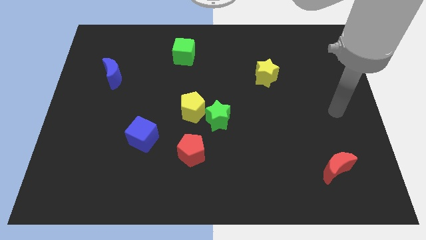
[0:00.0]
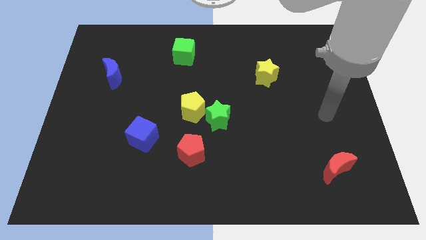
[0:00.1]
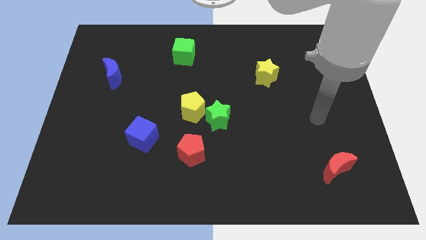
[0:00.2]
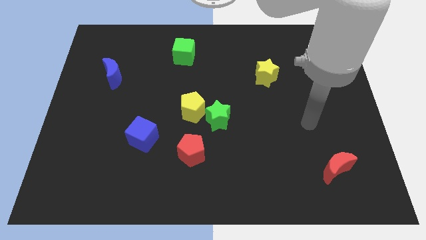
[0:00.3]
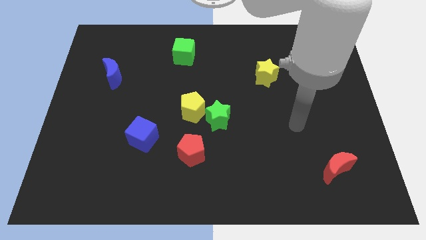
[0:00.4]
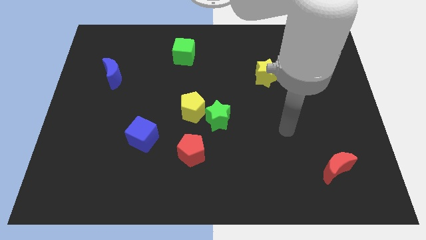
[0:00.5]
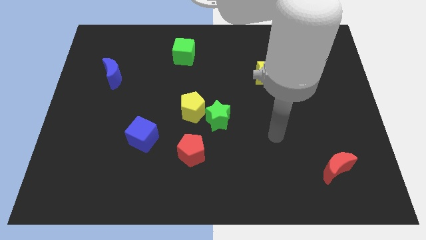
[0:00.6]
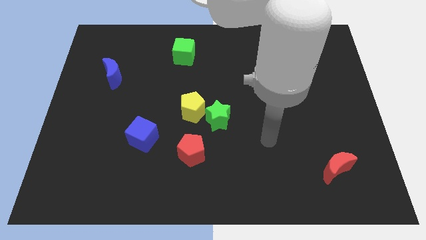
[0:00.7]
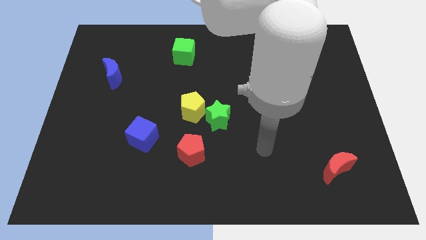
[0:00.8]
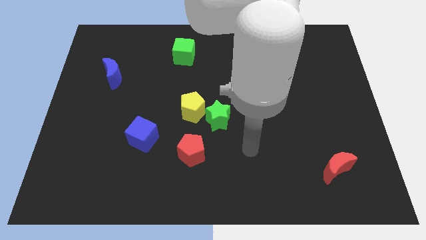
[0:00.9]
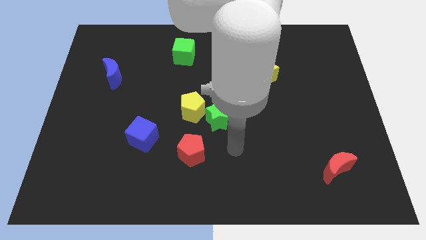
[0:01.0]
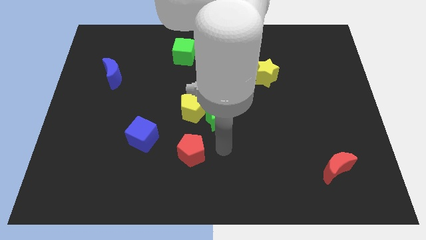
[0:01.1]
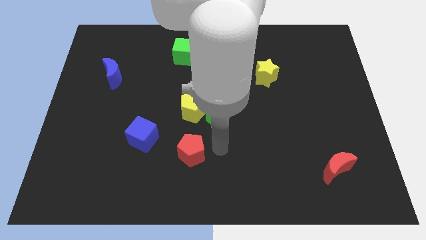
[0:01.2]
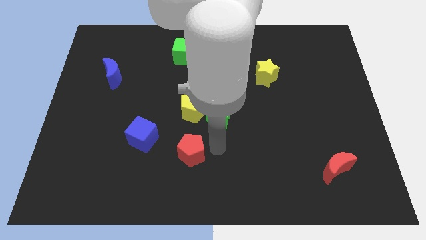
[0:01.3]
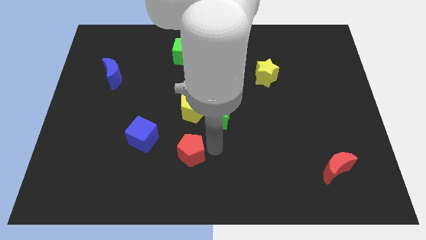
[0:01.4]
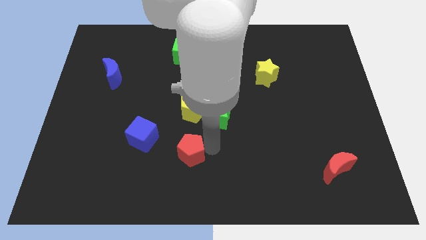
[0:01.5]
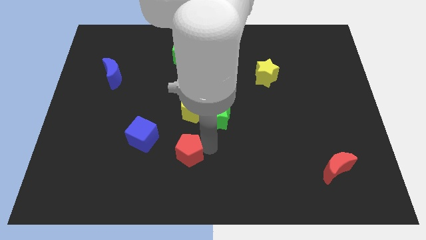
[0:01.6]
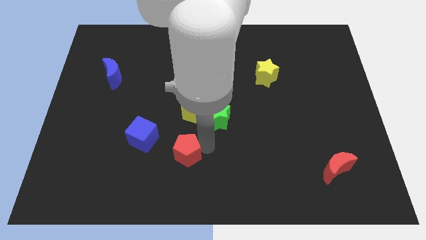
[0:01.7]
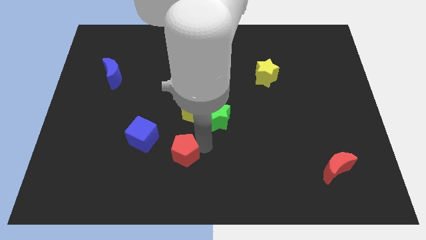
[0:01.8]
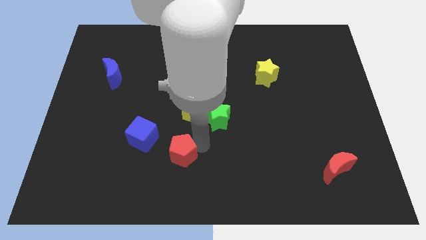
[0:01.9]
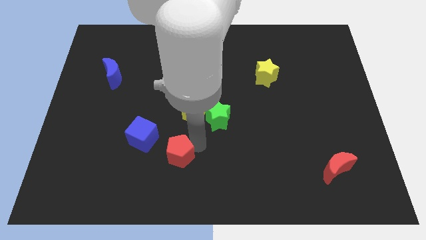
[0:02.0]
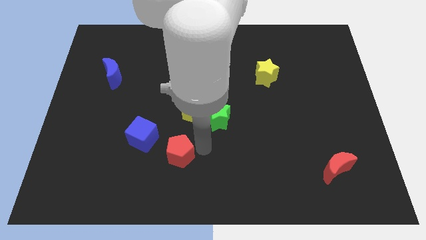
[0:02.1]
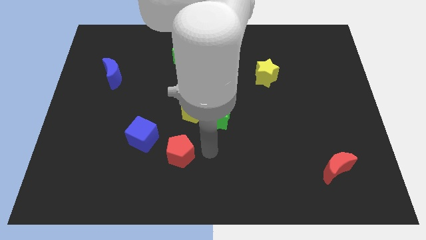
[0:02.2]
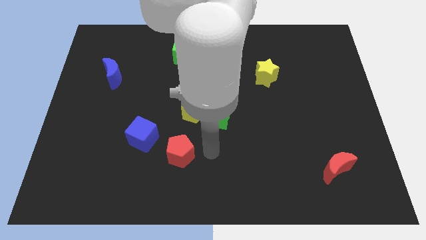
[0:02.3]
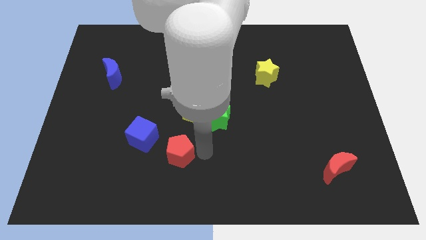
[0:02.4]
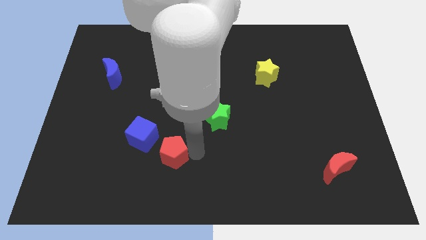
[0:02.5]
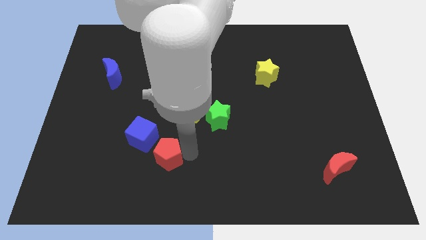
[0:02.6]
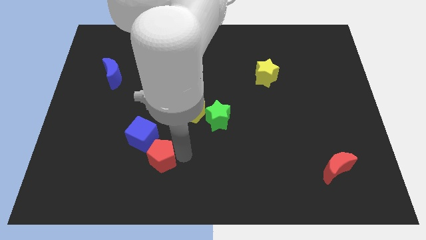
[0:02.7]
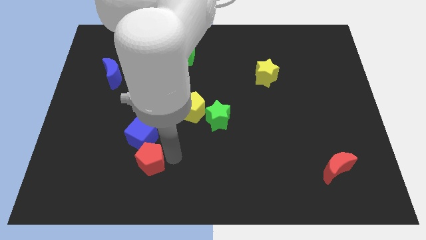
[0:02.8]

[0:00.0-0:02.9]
slightly push the red pentagon to the left

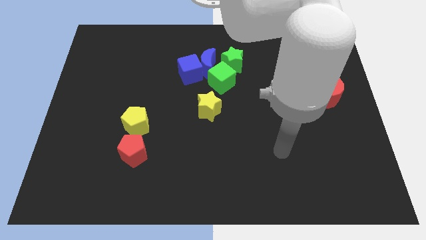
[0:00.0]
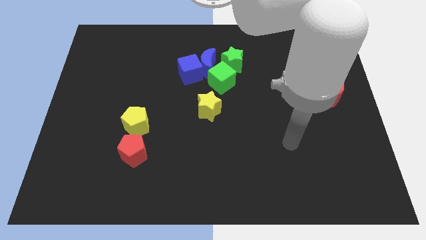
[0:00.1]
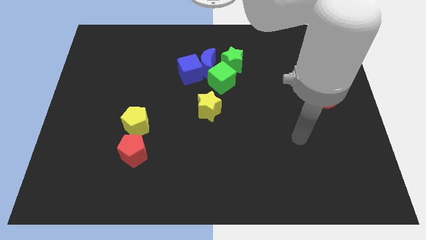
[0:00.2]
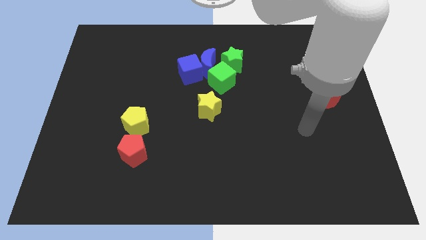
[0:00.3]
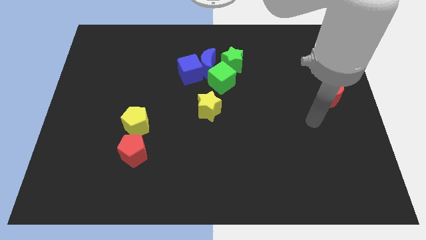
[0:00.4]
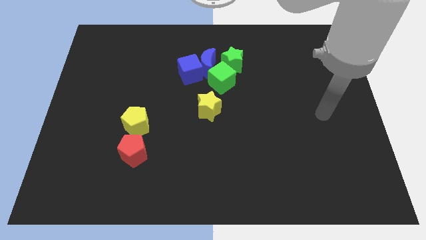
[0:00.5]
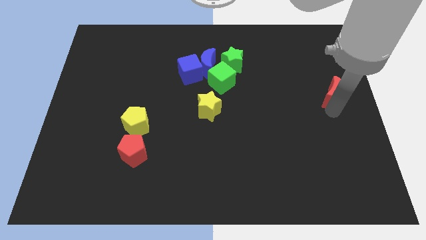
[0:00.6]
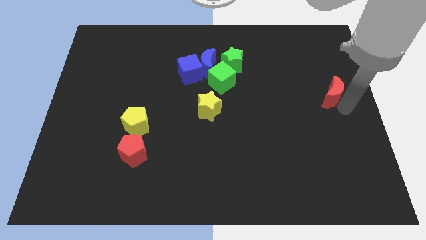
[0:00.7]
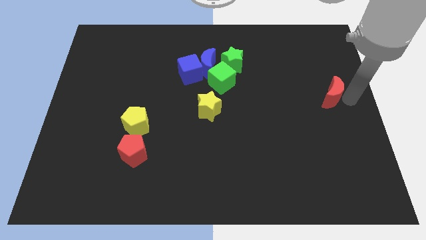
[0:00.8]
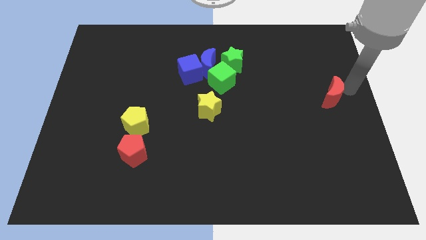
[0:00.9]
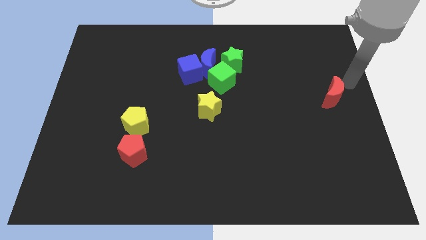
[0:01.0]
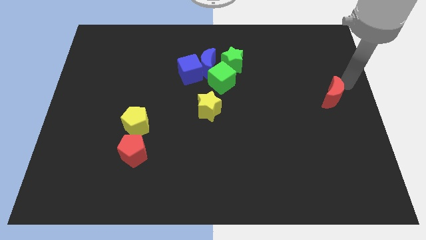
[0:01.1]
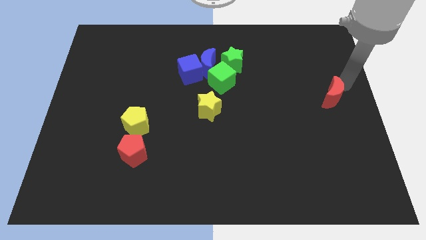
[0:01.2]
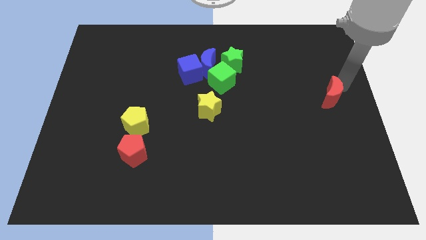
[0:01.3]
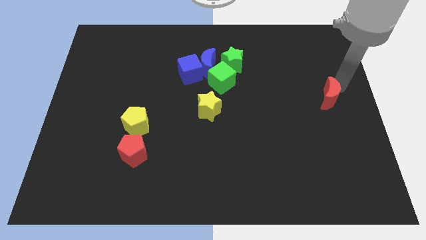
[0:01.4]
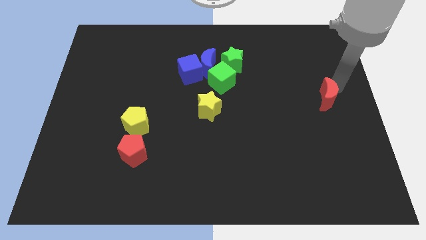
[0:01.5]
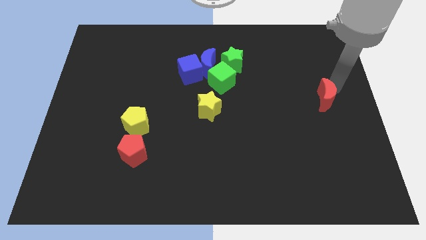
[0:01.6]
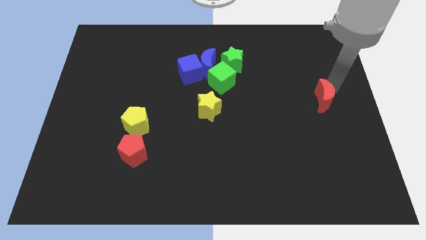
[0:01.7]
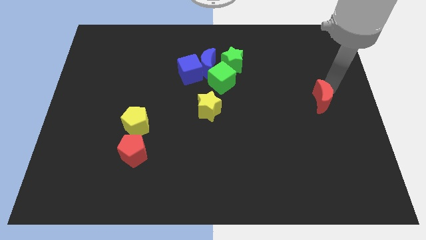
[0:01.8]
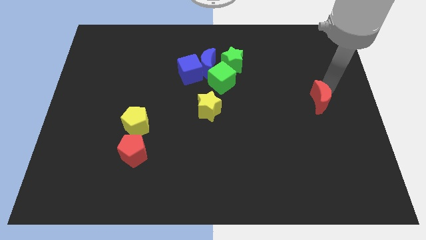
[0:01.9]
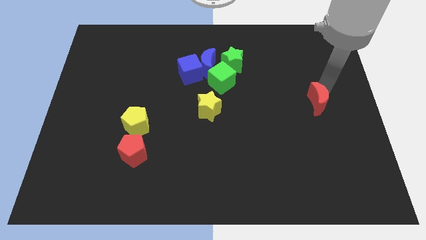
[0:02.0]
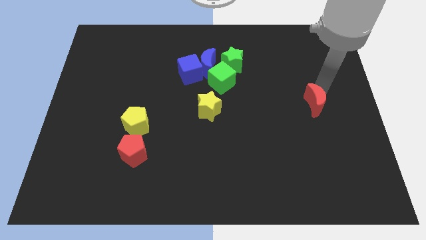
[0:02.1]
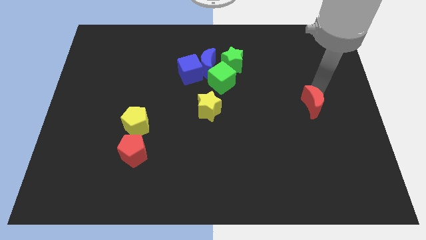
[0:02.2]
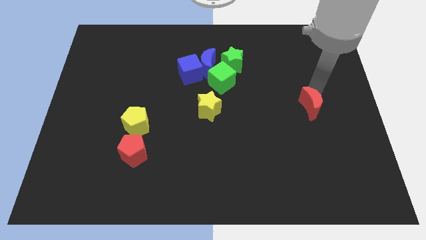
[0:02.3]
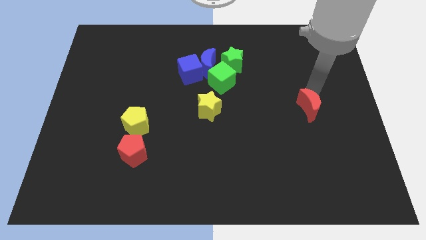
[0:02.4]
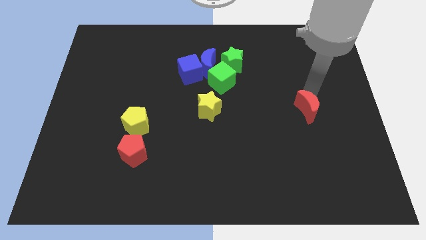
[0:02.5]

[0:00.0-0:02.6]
slightly move the red moon downwards and left

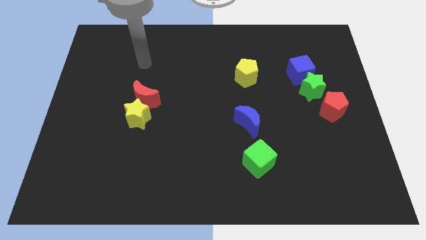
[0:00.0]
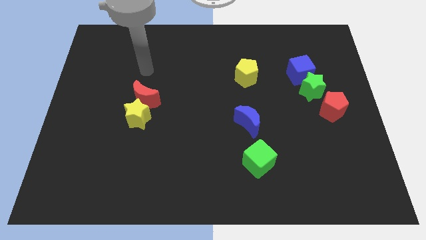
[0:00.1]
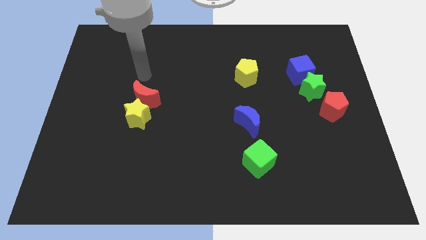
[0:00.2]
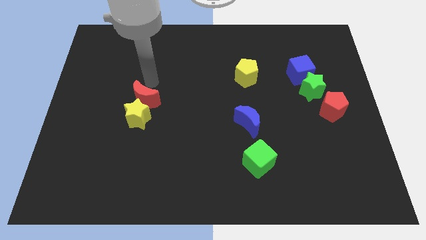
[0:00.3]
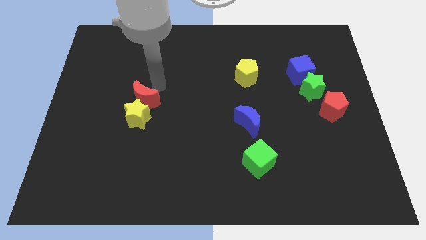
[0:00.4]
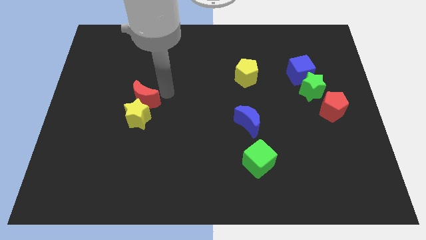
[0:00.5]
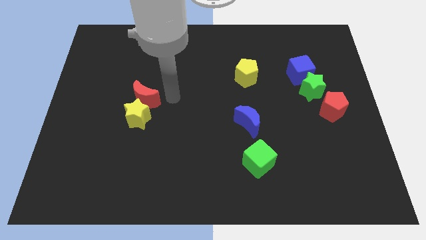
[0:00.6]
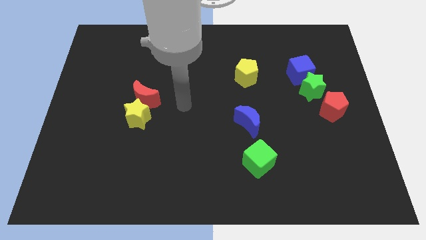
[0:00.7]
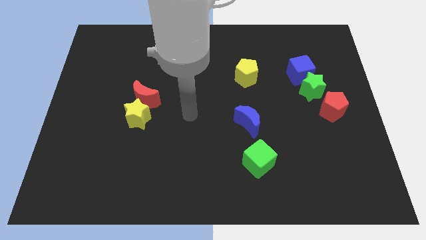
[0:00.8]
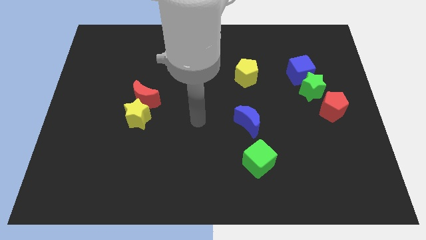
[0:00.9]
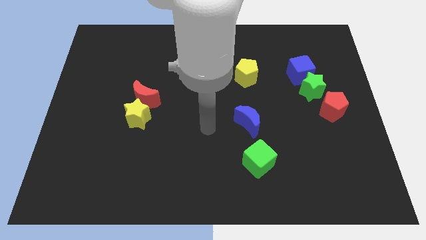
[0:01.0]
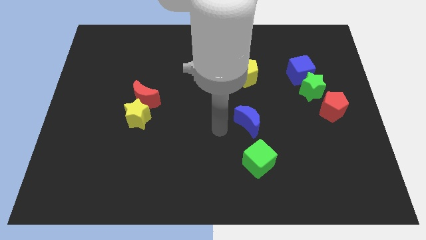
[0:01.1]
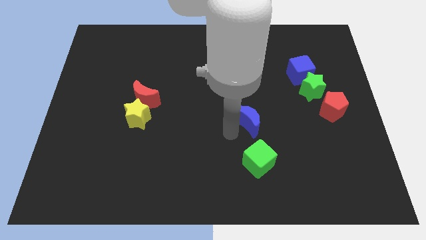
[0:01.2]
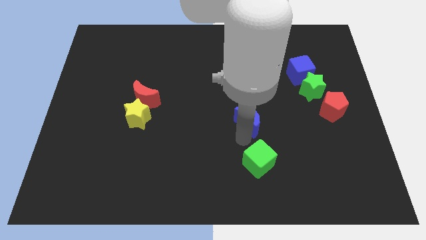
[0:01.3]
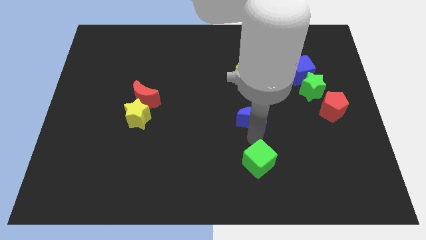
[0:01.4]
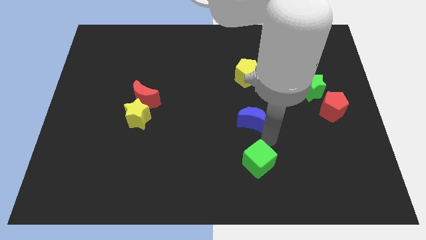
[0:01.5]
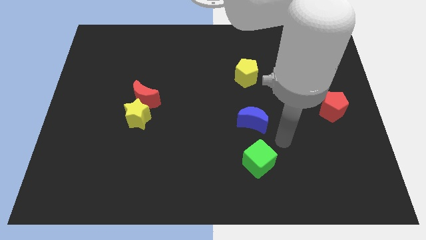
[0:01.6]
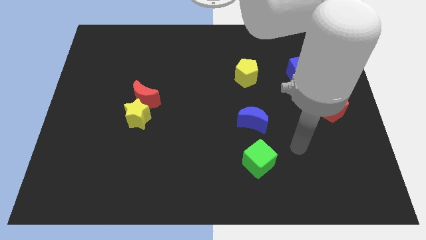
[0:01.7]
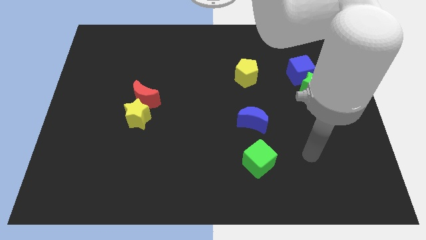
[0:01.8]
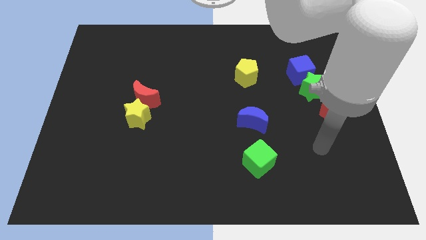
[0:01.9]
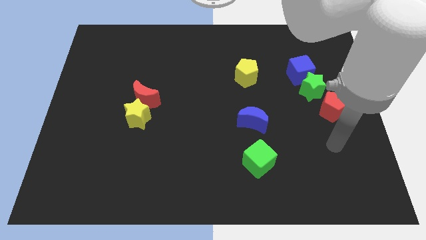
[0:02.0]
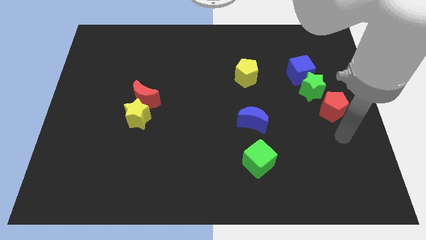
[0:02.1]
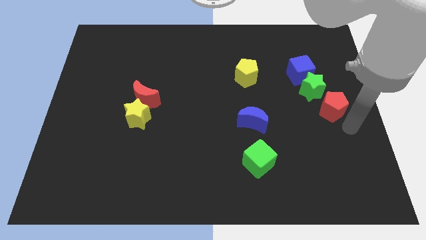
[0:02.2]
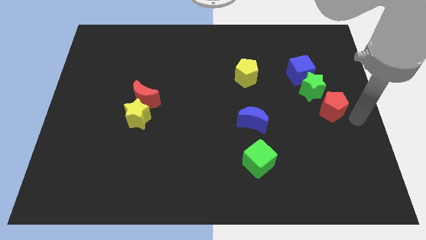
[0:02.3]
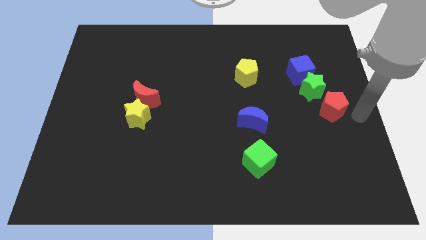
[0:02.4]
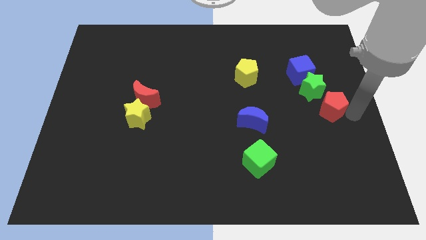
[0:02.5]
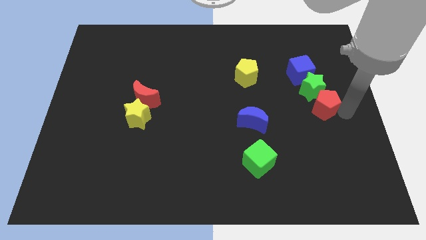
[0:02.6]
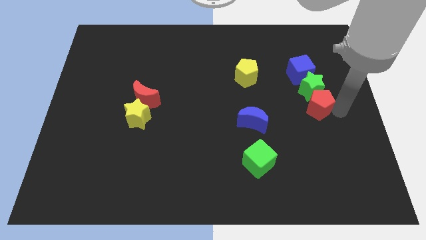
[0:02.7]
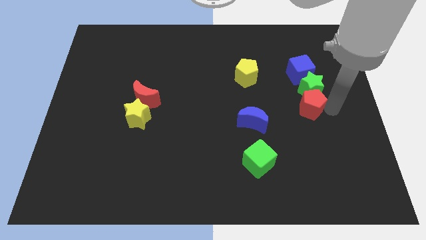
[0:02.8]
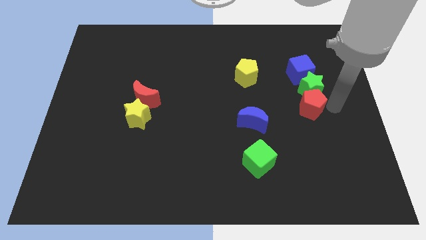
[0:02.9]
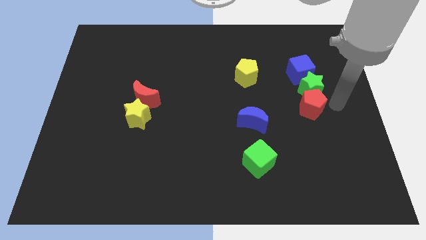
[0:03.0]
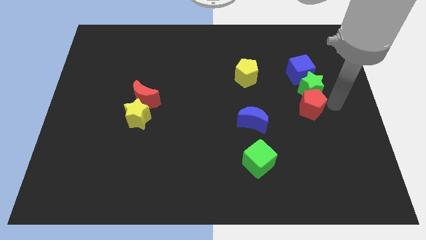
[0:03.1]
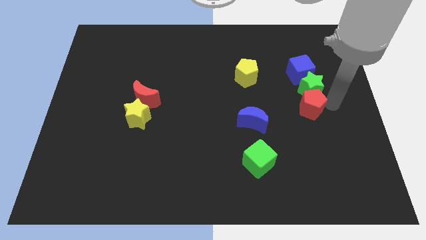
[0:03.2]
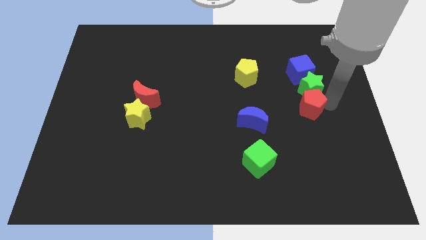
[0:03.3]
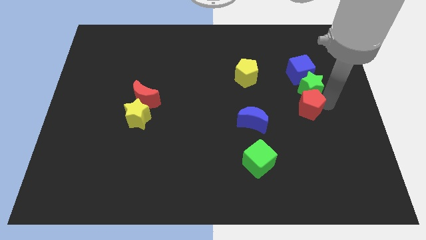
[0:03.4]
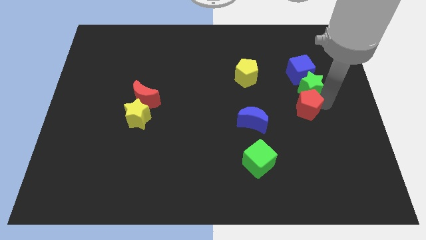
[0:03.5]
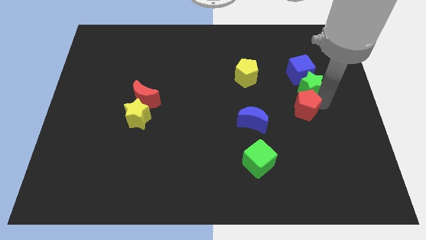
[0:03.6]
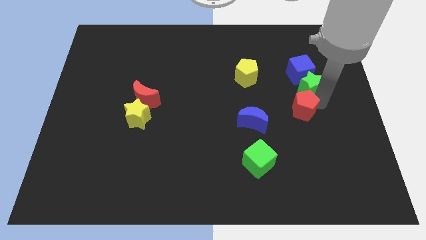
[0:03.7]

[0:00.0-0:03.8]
slide the red pentagon slightly to the left
